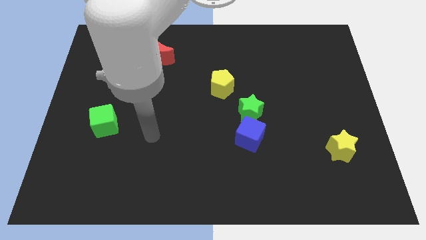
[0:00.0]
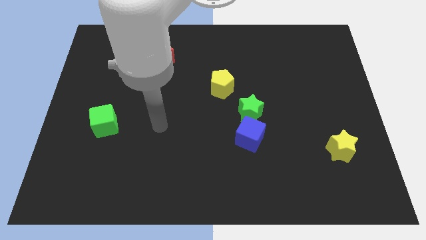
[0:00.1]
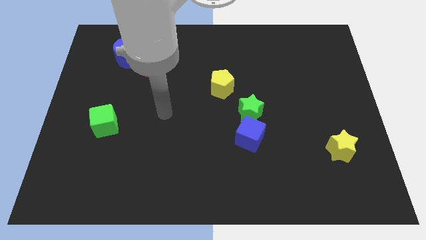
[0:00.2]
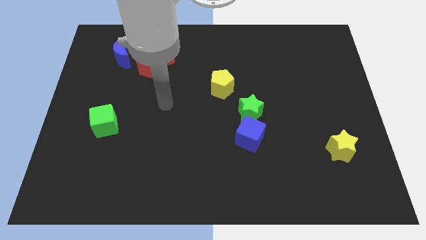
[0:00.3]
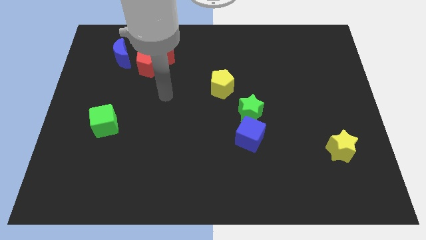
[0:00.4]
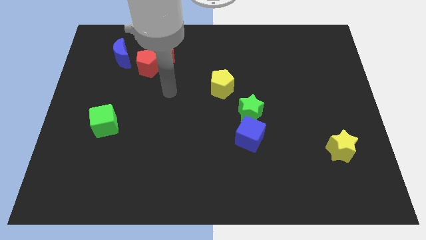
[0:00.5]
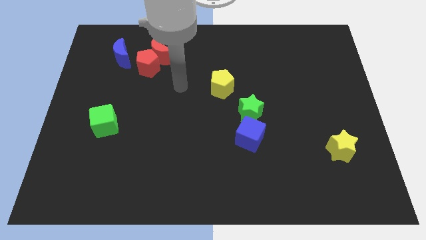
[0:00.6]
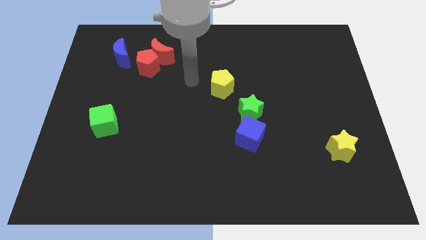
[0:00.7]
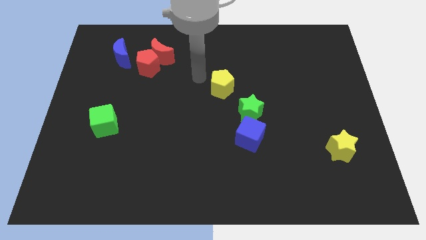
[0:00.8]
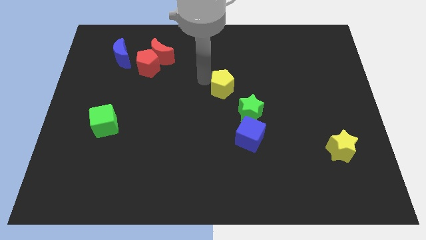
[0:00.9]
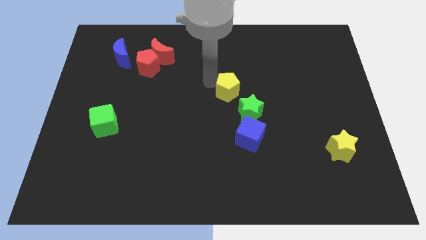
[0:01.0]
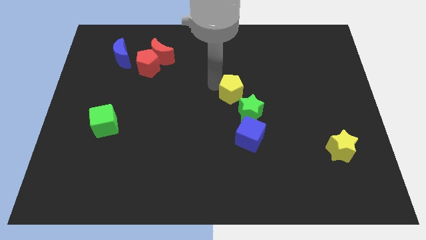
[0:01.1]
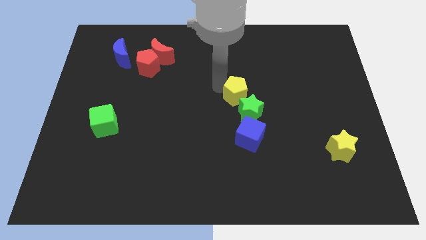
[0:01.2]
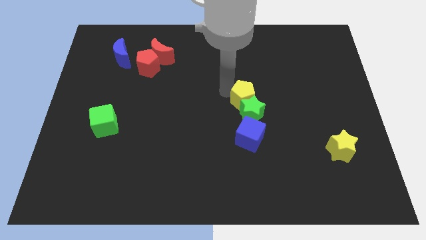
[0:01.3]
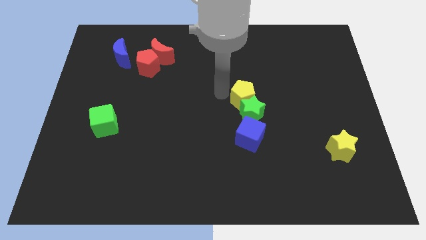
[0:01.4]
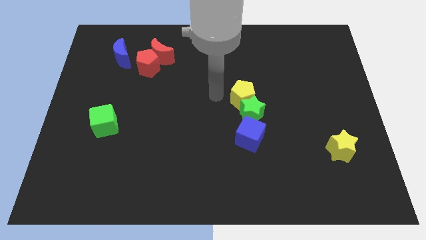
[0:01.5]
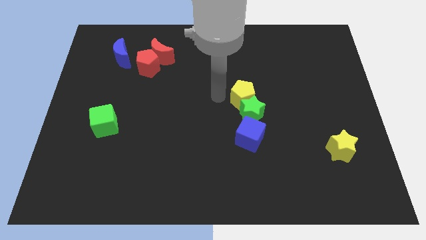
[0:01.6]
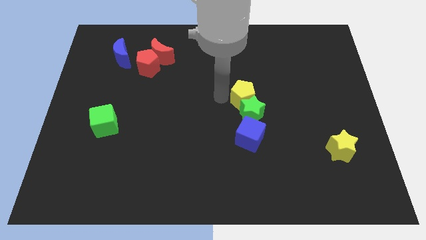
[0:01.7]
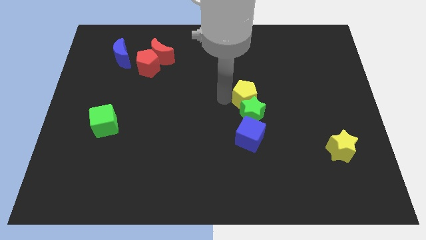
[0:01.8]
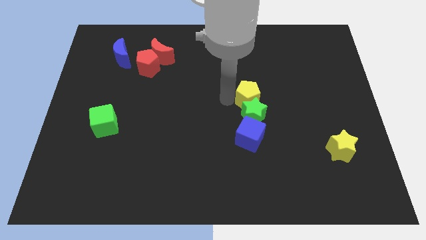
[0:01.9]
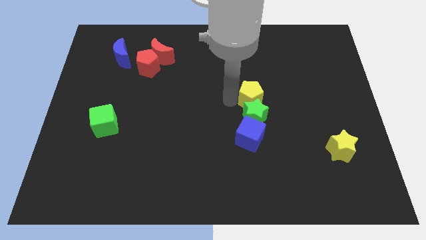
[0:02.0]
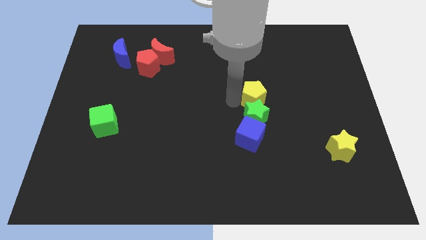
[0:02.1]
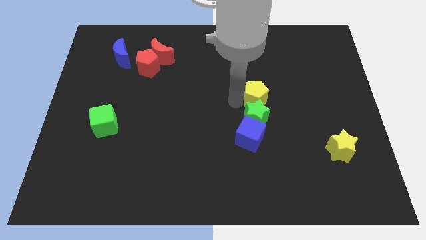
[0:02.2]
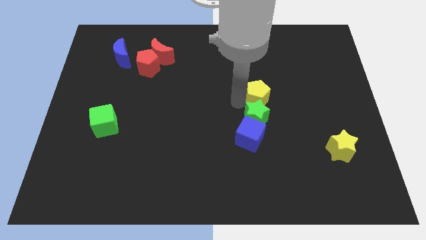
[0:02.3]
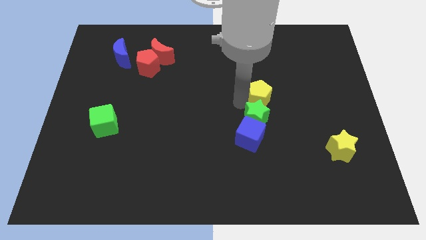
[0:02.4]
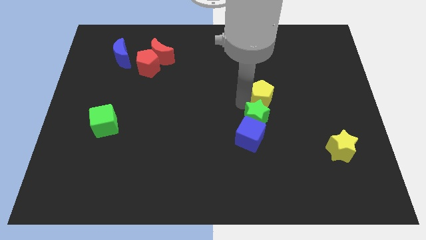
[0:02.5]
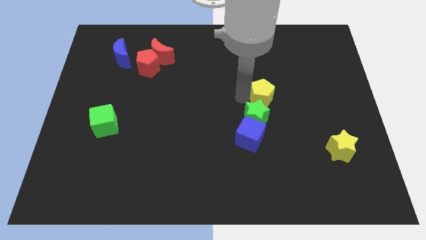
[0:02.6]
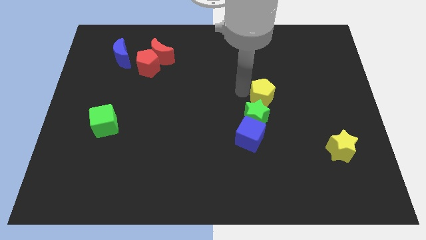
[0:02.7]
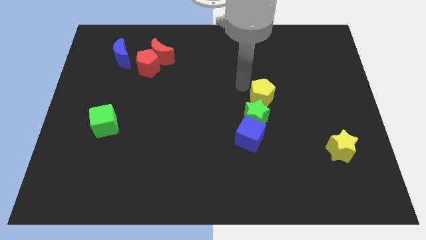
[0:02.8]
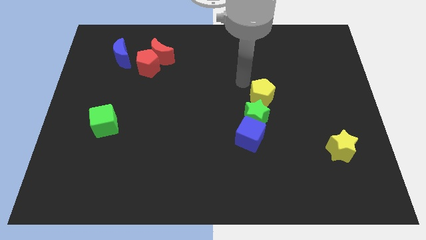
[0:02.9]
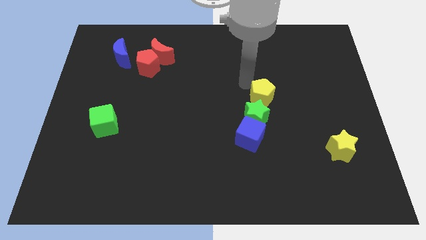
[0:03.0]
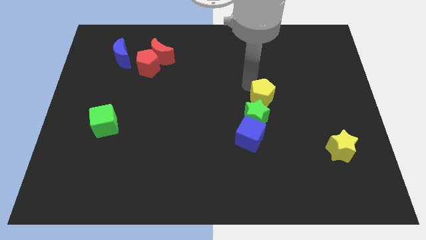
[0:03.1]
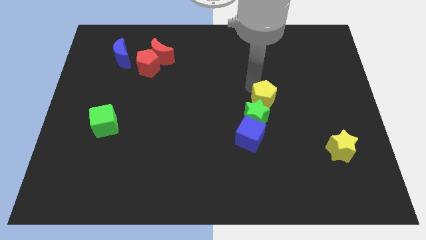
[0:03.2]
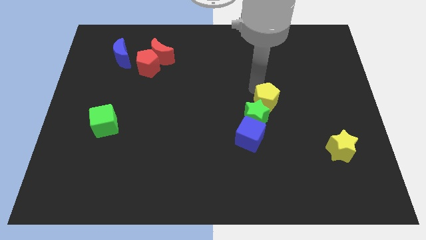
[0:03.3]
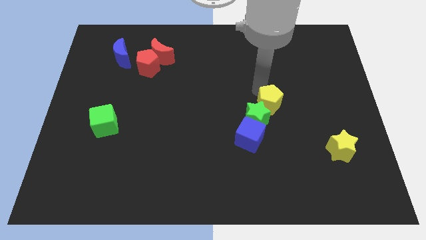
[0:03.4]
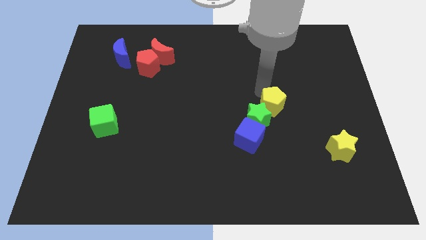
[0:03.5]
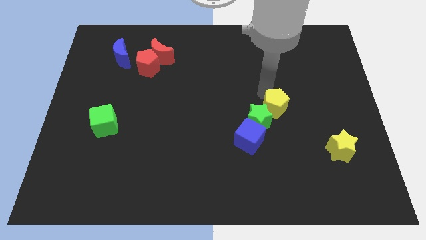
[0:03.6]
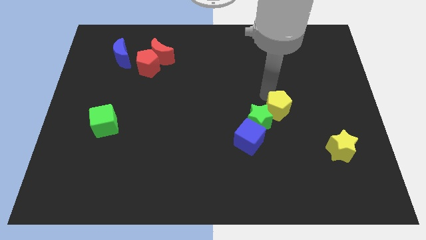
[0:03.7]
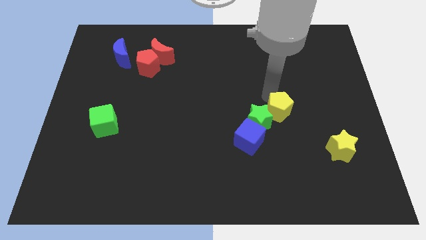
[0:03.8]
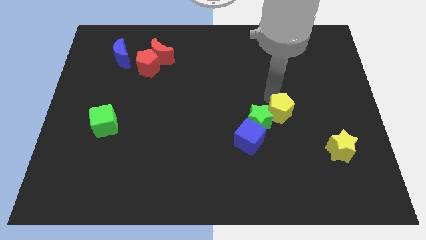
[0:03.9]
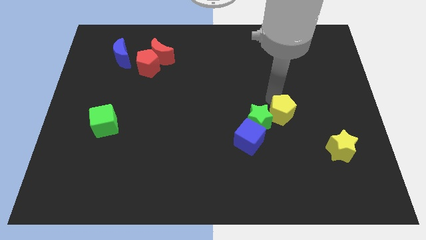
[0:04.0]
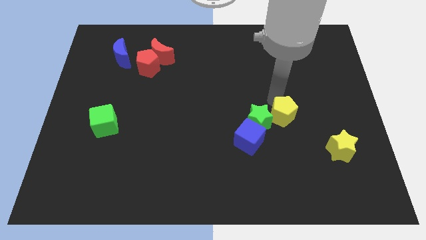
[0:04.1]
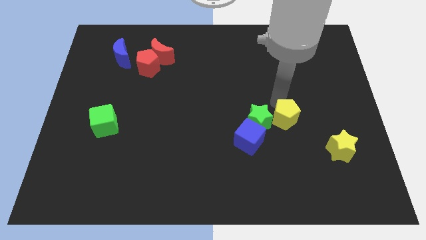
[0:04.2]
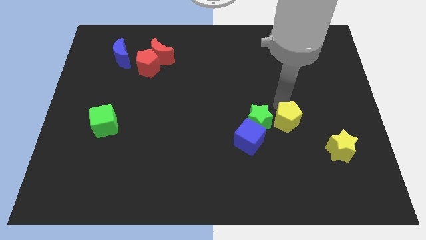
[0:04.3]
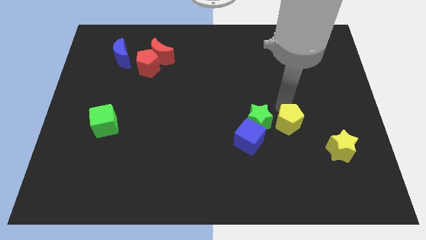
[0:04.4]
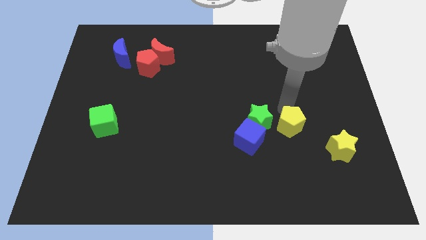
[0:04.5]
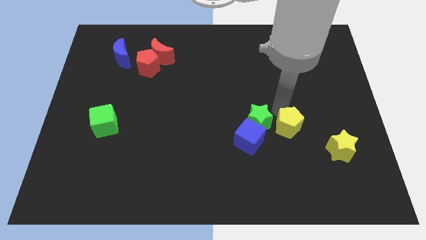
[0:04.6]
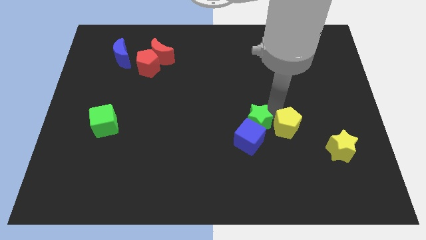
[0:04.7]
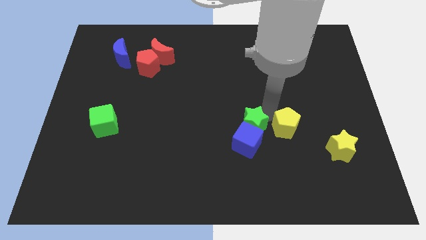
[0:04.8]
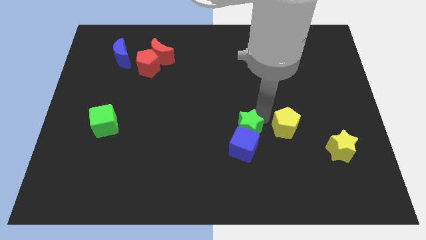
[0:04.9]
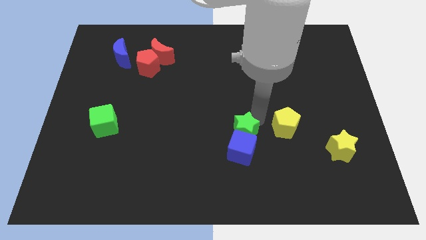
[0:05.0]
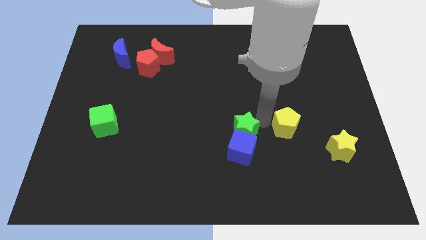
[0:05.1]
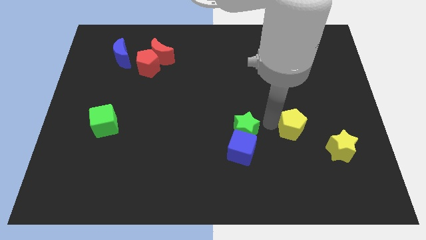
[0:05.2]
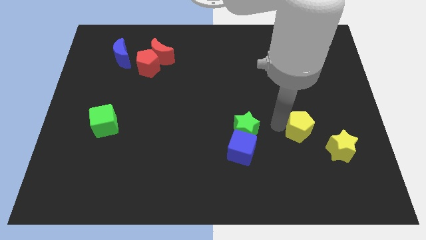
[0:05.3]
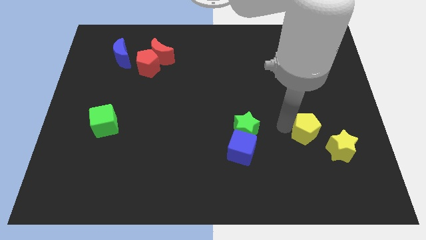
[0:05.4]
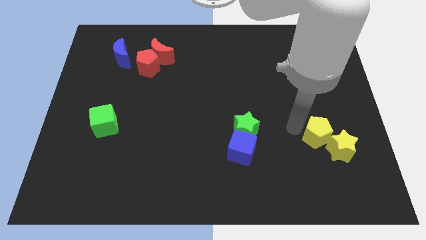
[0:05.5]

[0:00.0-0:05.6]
slide the yellow pentagon close to the yellow star

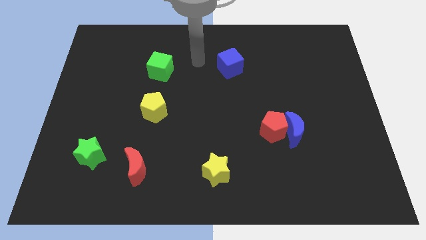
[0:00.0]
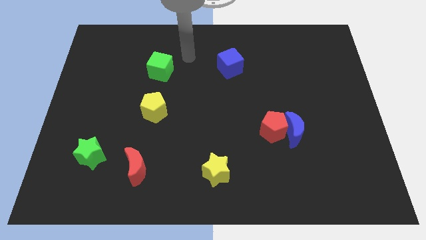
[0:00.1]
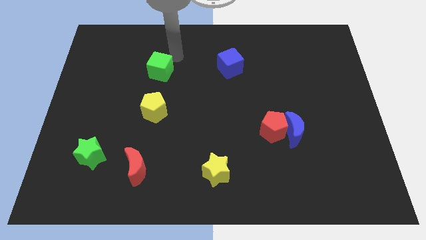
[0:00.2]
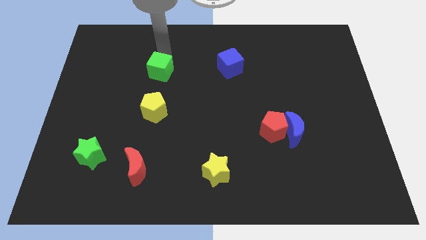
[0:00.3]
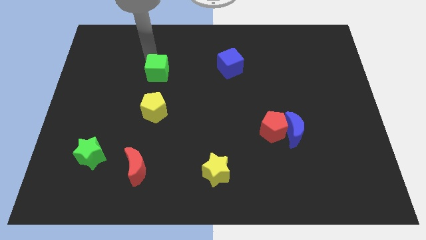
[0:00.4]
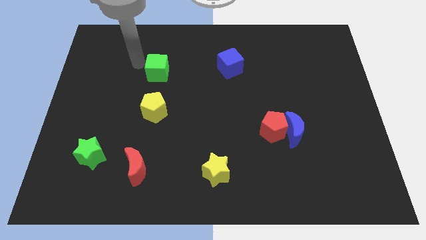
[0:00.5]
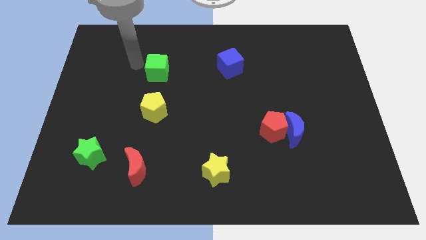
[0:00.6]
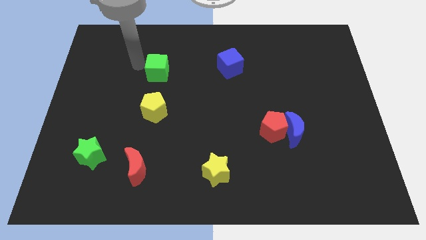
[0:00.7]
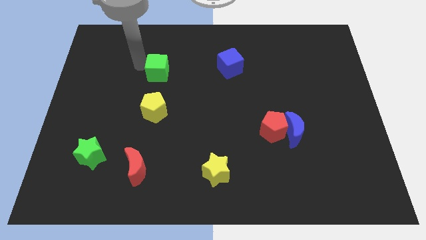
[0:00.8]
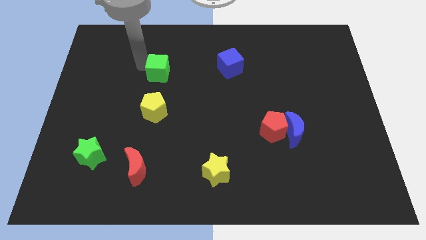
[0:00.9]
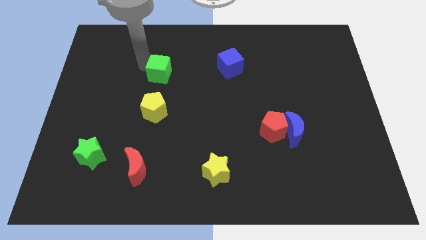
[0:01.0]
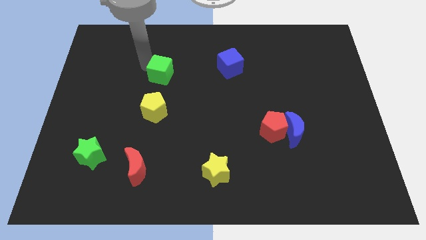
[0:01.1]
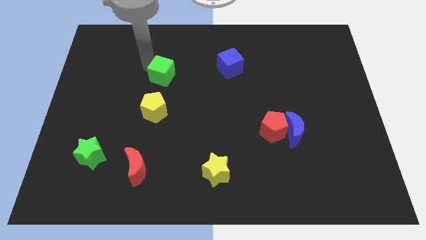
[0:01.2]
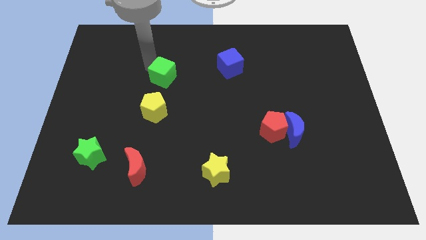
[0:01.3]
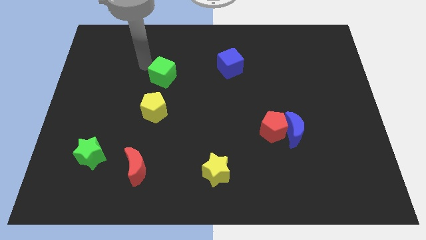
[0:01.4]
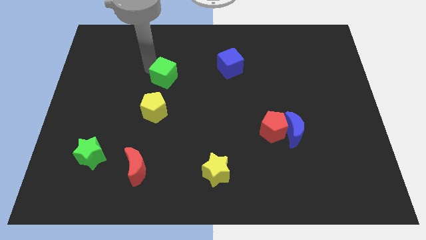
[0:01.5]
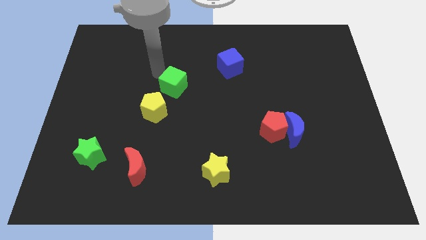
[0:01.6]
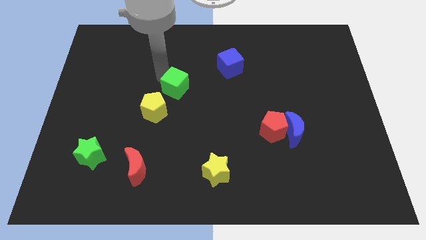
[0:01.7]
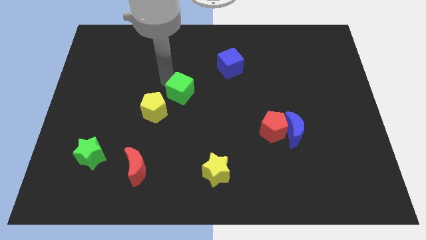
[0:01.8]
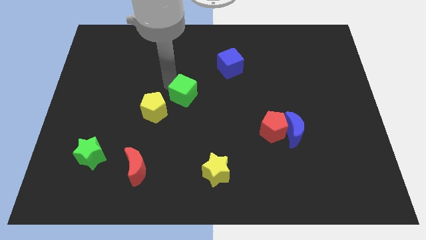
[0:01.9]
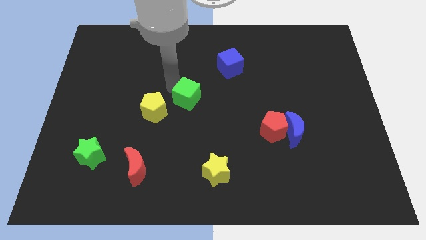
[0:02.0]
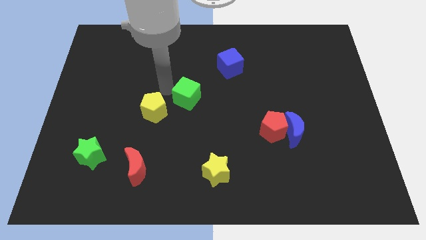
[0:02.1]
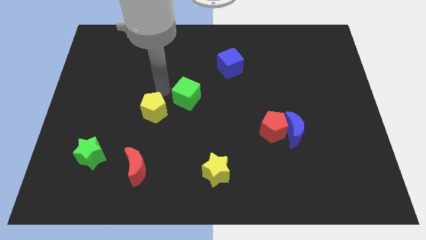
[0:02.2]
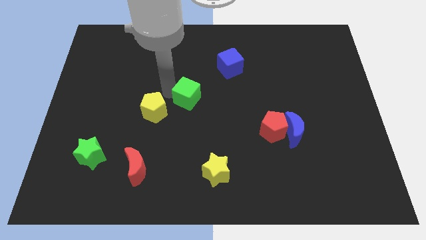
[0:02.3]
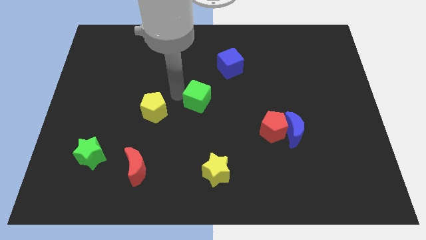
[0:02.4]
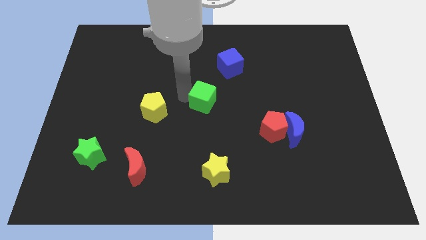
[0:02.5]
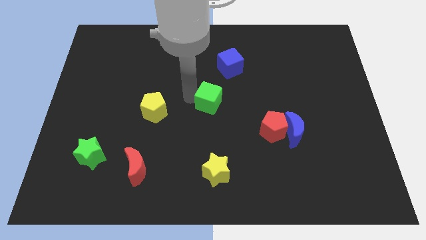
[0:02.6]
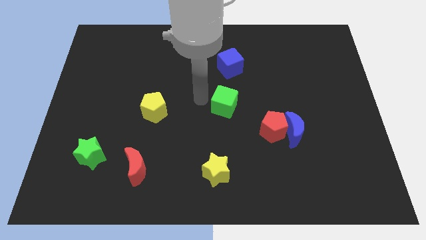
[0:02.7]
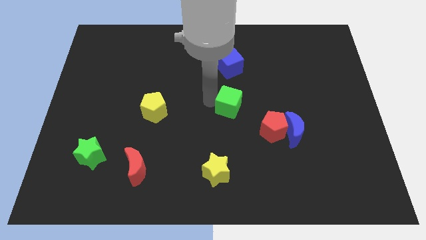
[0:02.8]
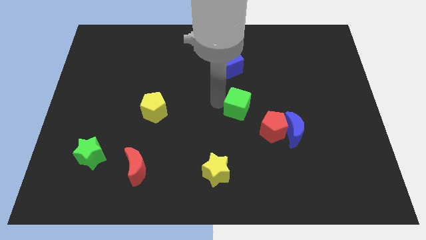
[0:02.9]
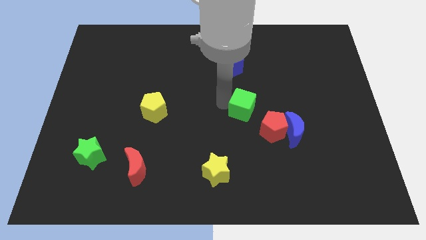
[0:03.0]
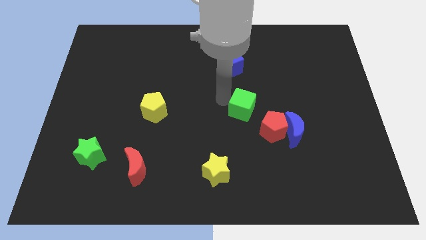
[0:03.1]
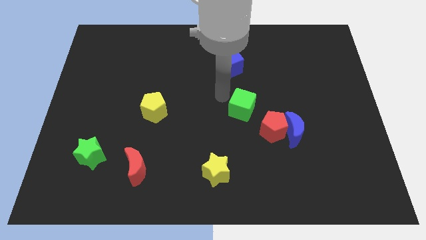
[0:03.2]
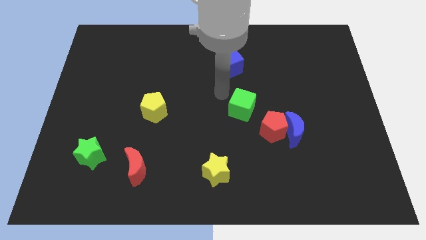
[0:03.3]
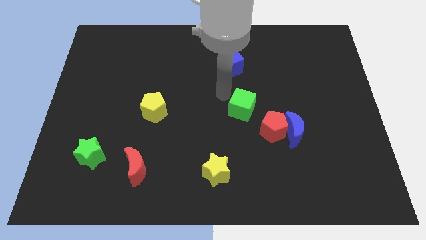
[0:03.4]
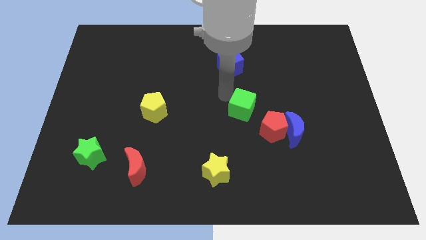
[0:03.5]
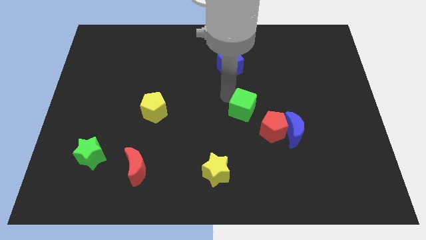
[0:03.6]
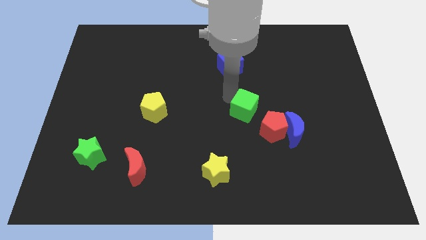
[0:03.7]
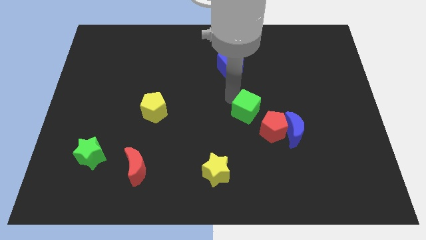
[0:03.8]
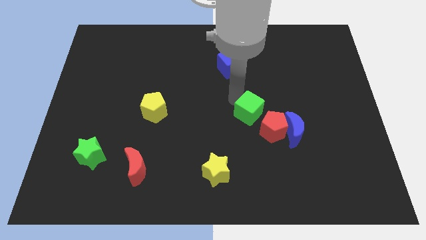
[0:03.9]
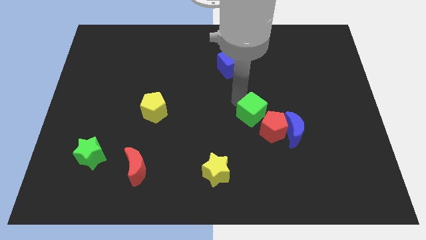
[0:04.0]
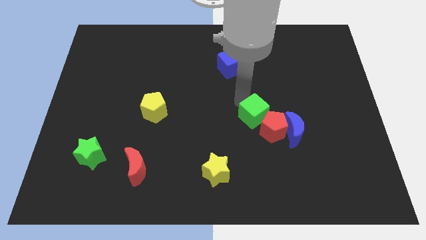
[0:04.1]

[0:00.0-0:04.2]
put the green cube next to the red pentagon
